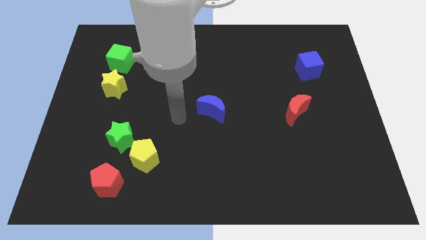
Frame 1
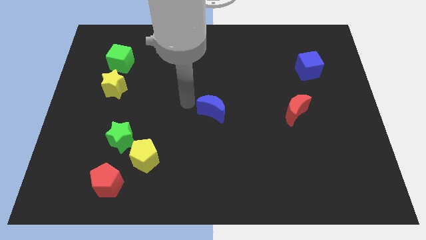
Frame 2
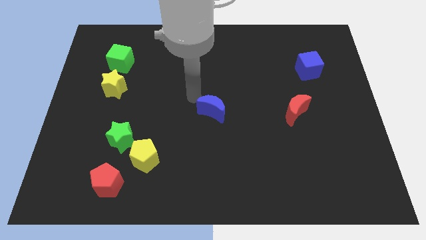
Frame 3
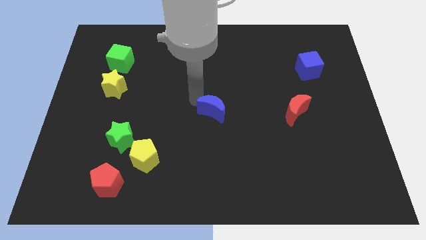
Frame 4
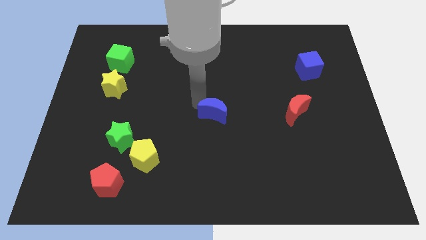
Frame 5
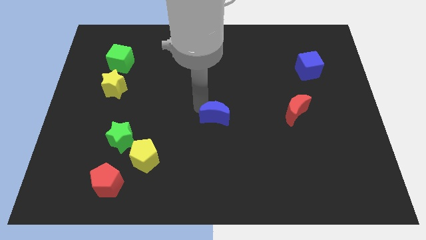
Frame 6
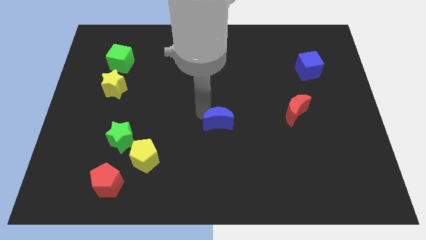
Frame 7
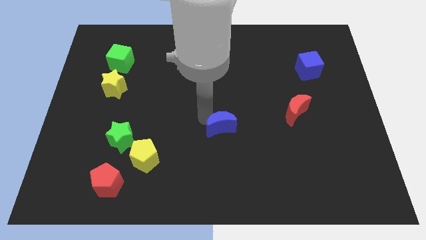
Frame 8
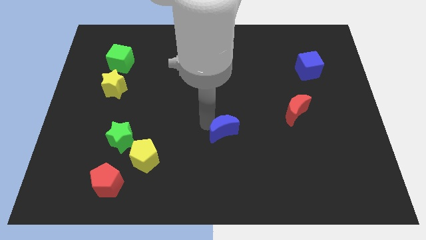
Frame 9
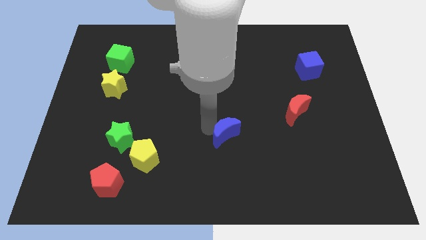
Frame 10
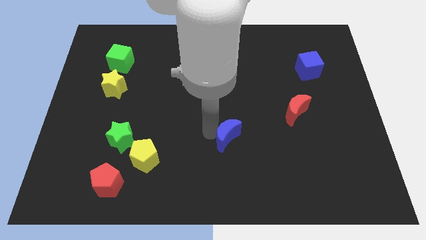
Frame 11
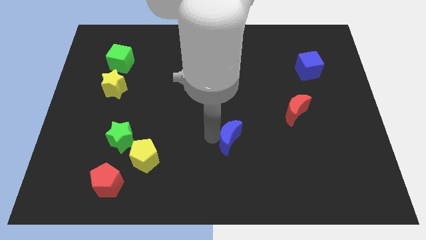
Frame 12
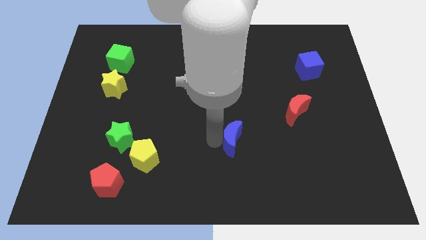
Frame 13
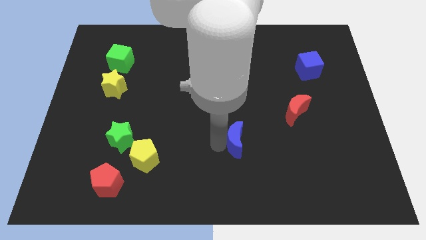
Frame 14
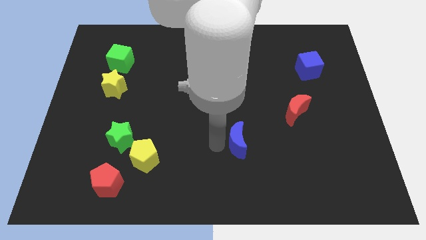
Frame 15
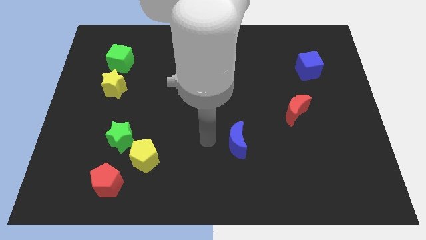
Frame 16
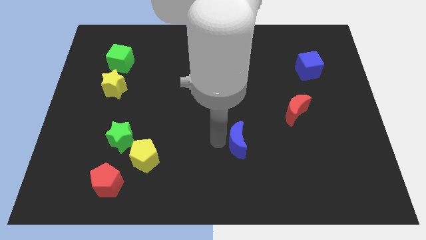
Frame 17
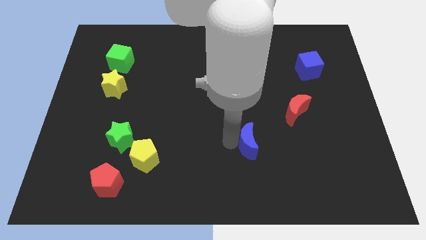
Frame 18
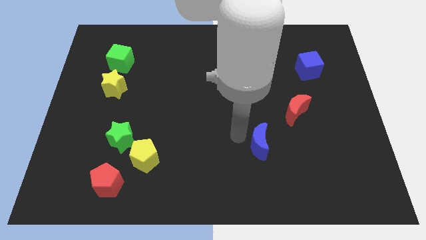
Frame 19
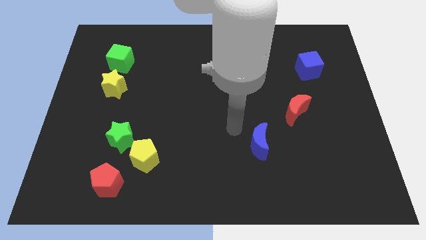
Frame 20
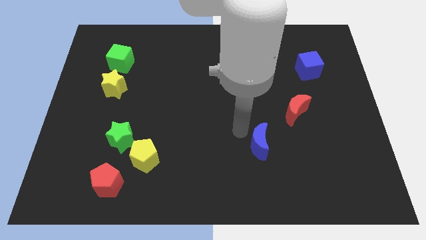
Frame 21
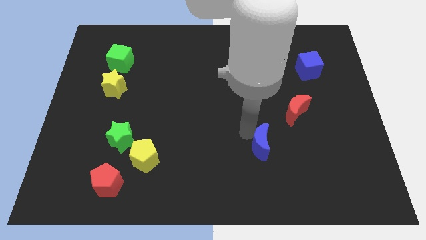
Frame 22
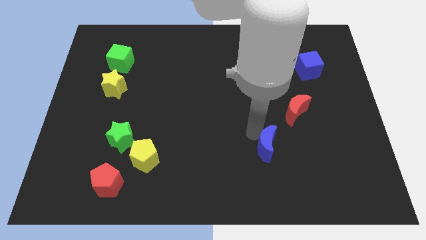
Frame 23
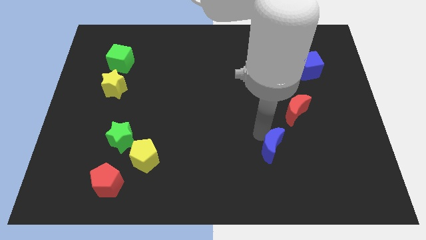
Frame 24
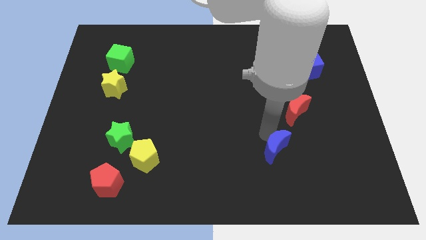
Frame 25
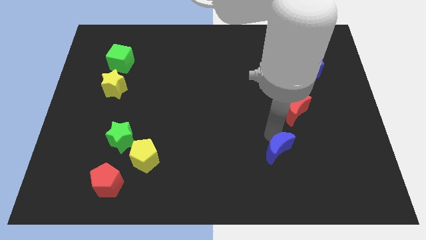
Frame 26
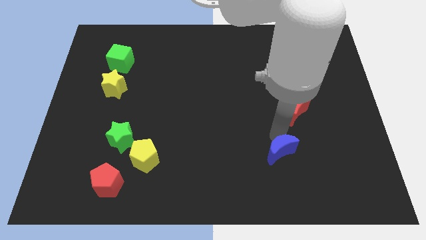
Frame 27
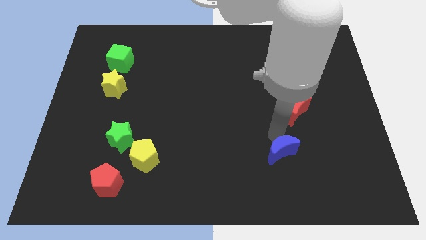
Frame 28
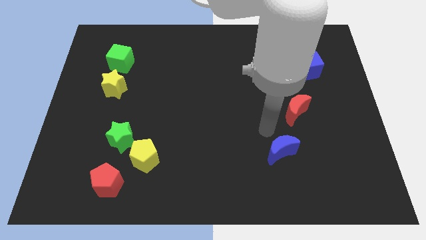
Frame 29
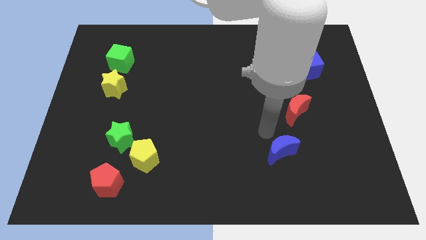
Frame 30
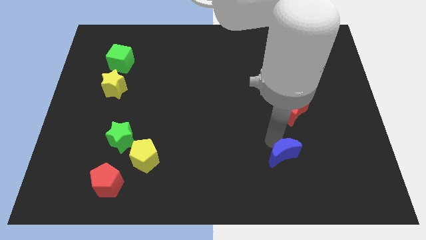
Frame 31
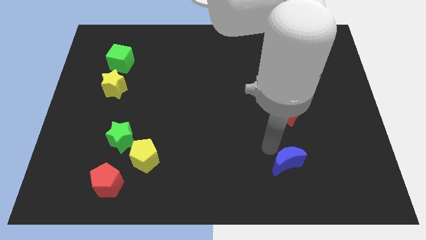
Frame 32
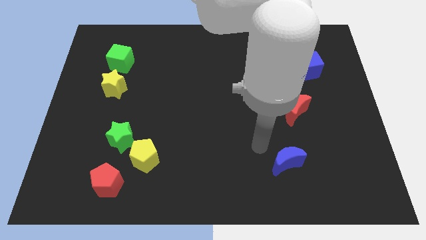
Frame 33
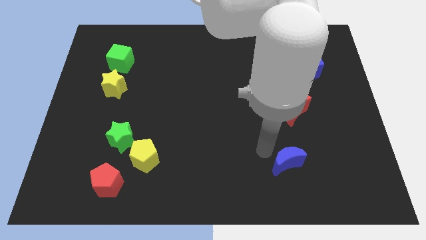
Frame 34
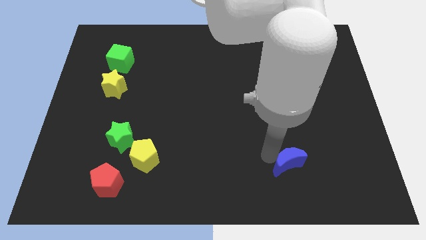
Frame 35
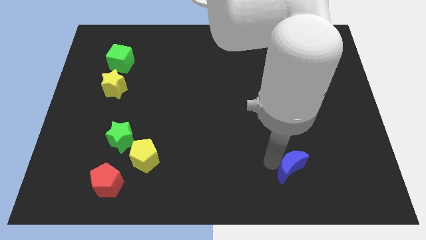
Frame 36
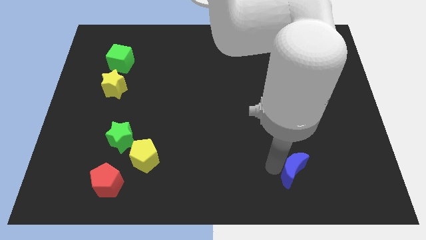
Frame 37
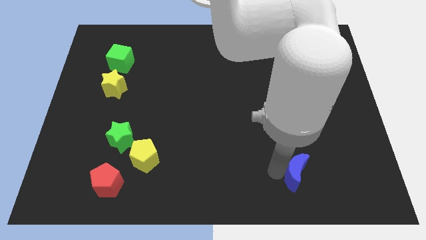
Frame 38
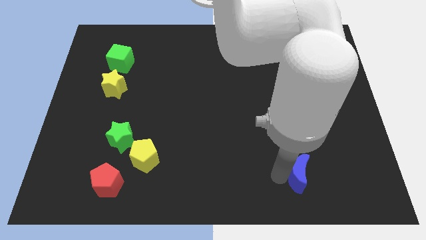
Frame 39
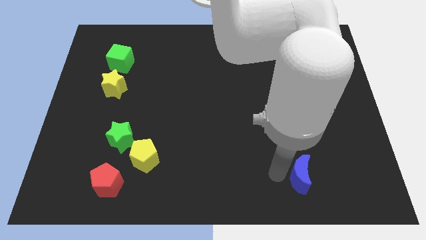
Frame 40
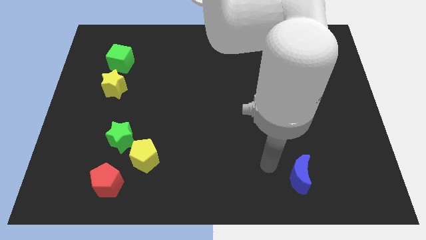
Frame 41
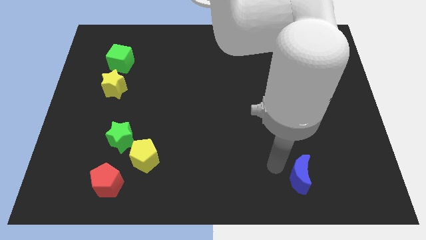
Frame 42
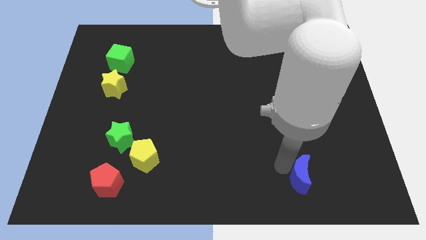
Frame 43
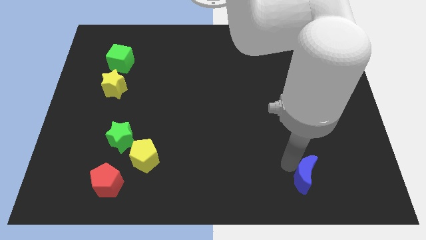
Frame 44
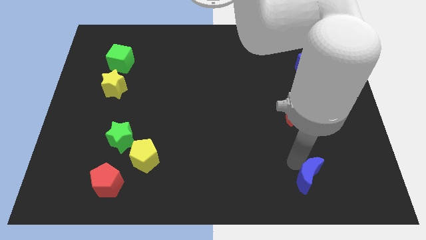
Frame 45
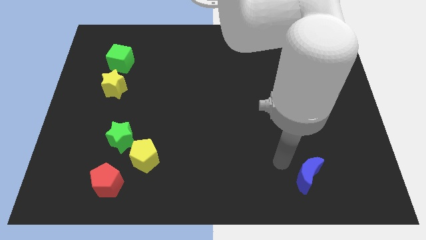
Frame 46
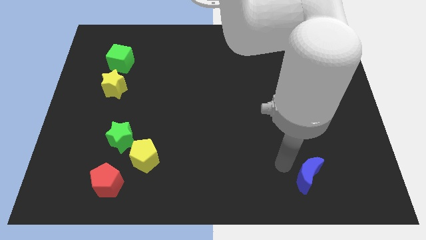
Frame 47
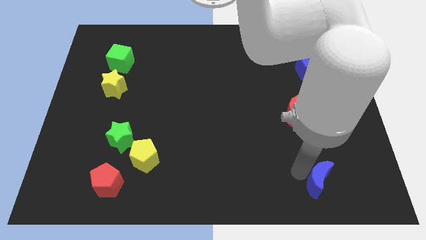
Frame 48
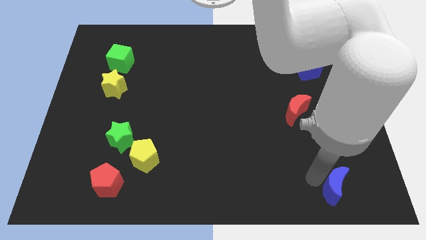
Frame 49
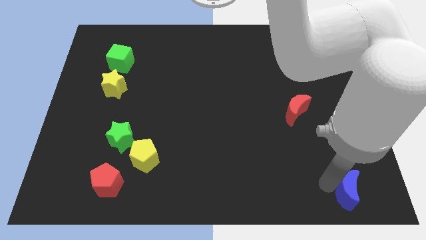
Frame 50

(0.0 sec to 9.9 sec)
slide the blue moon to the bottom right corner

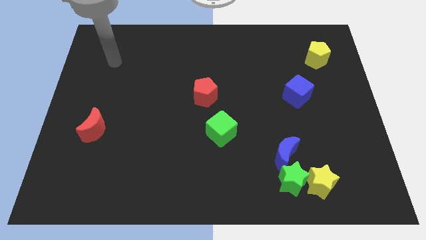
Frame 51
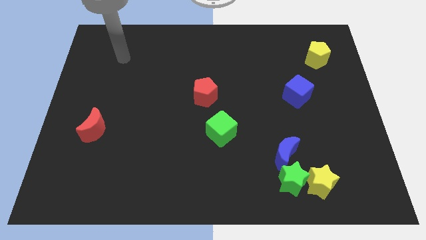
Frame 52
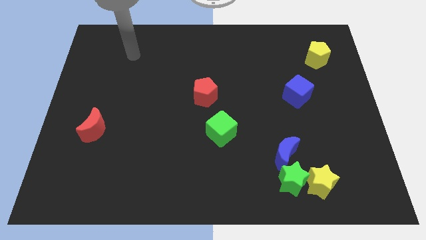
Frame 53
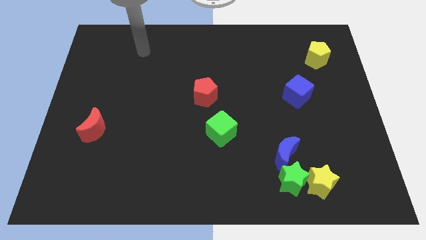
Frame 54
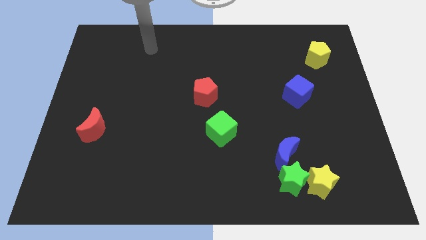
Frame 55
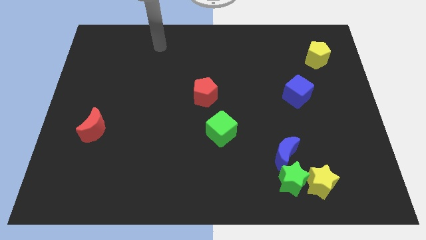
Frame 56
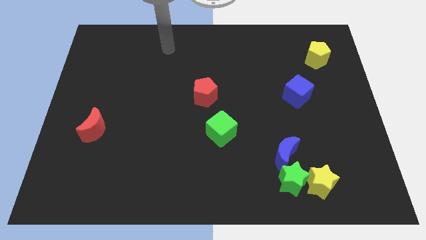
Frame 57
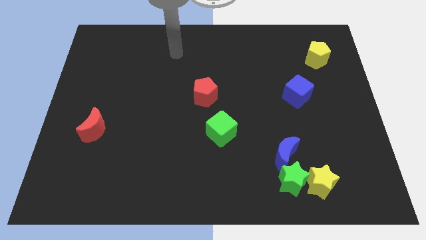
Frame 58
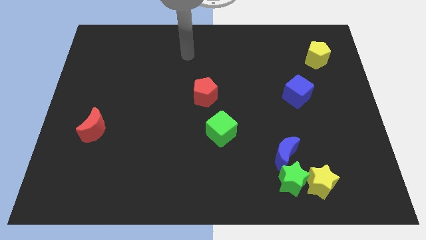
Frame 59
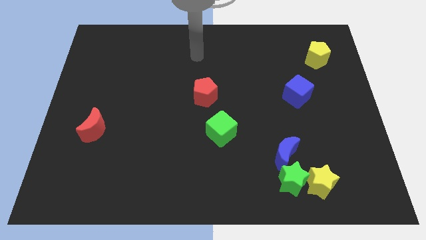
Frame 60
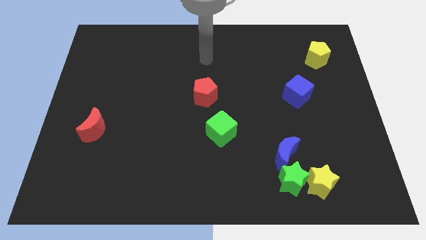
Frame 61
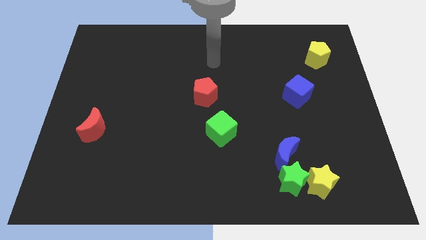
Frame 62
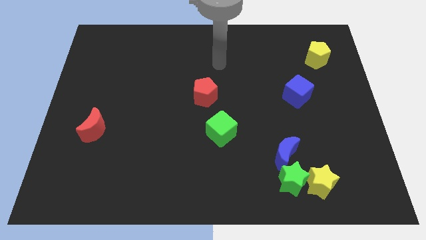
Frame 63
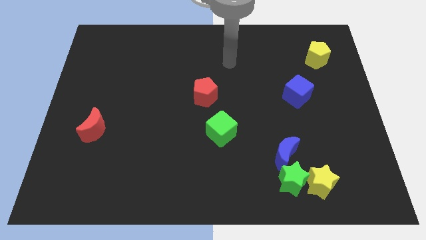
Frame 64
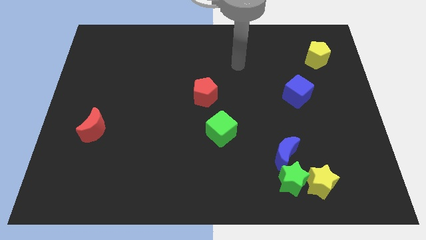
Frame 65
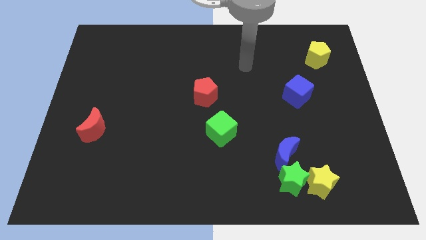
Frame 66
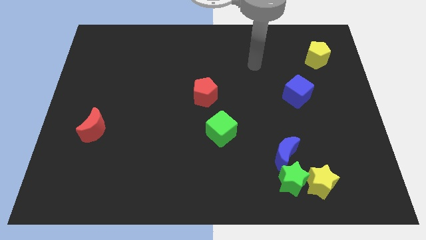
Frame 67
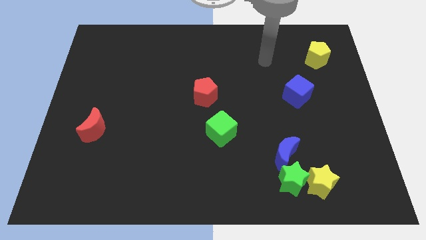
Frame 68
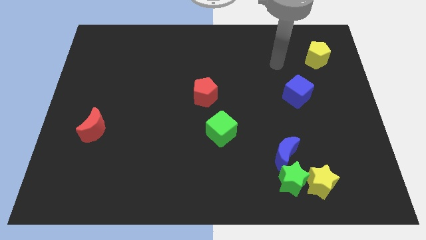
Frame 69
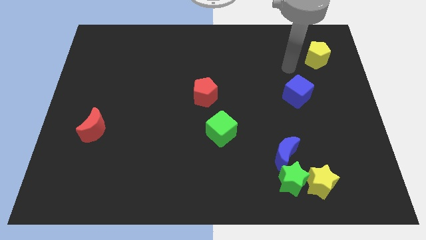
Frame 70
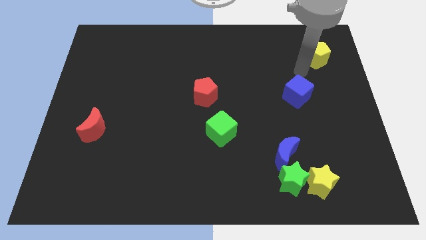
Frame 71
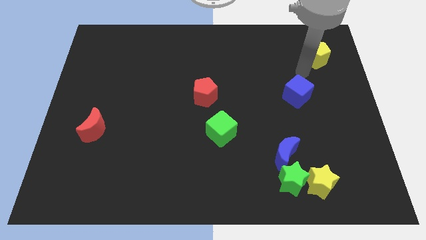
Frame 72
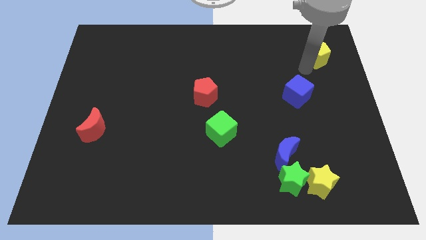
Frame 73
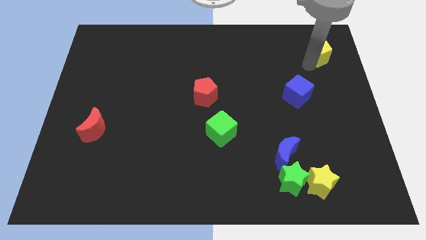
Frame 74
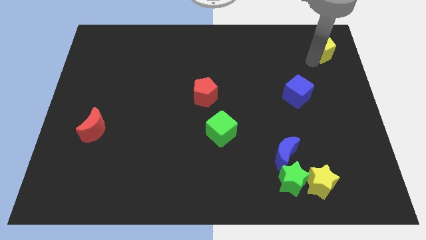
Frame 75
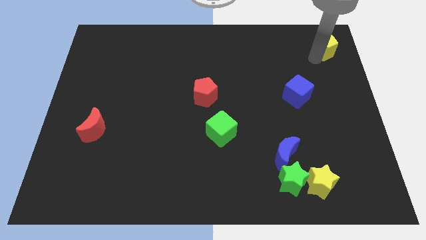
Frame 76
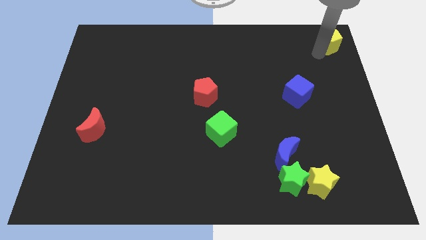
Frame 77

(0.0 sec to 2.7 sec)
slide the yellow pentagon to the upper right corner
